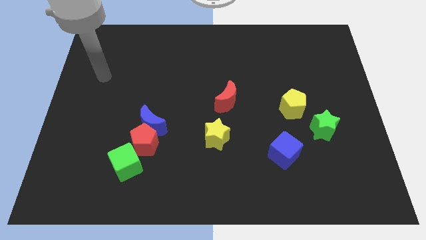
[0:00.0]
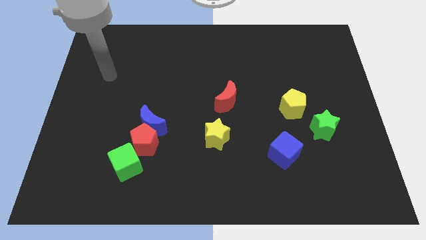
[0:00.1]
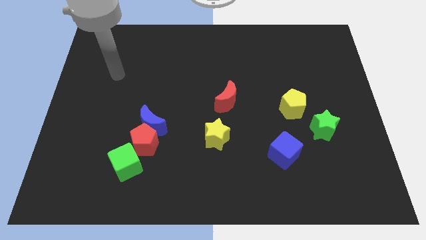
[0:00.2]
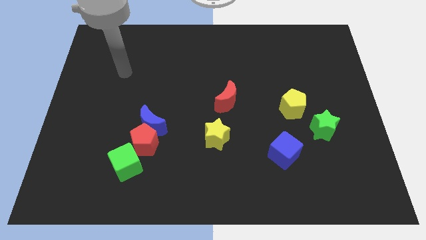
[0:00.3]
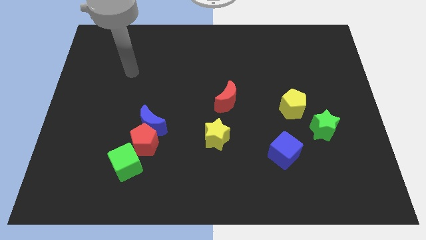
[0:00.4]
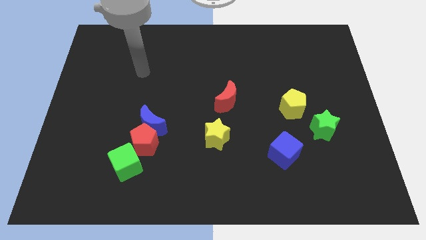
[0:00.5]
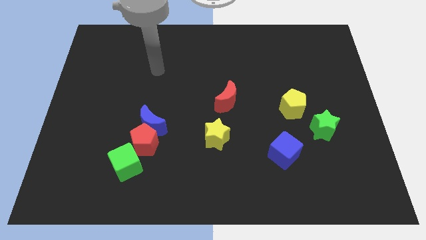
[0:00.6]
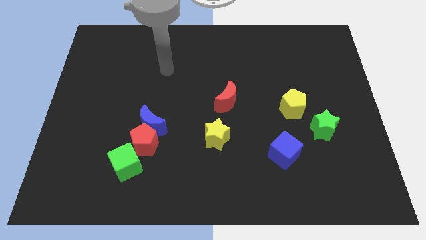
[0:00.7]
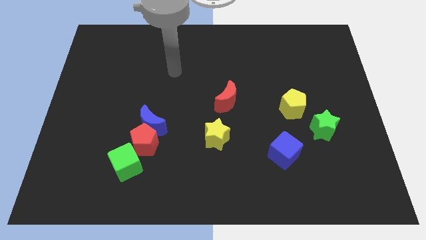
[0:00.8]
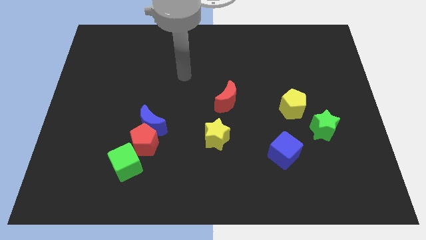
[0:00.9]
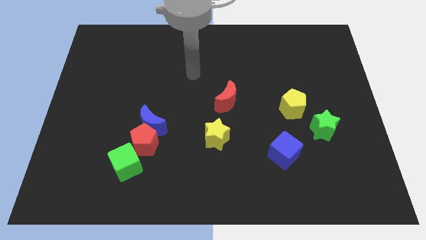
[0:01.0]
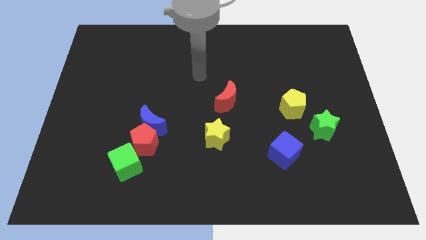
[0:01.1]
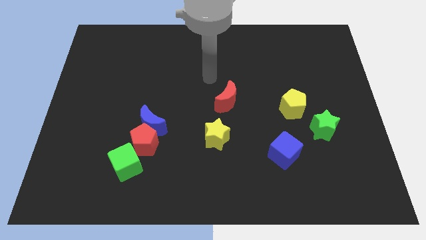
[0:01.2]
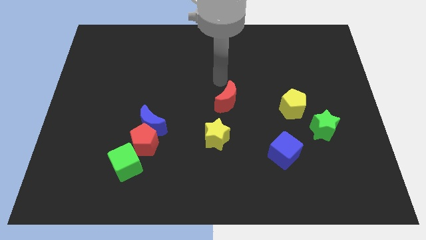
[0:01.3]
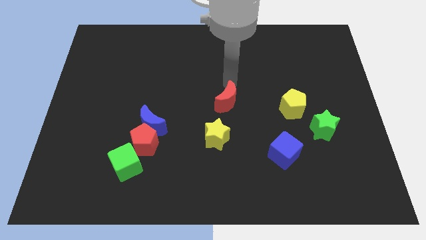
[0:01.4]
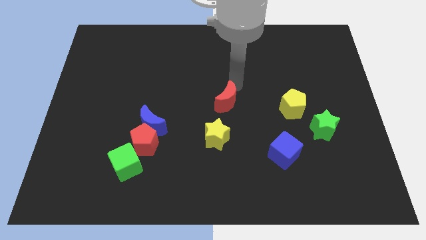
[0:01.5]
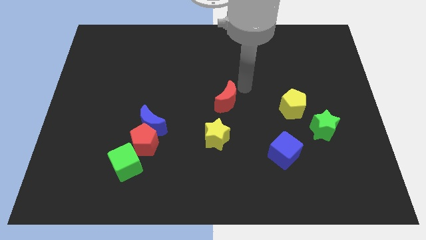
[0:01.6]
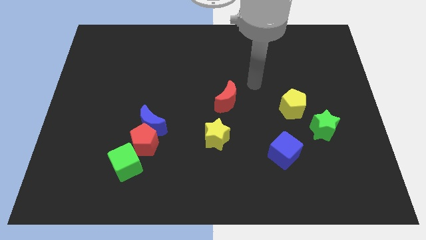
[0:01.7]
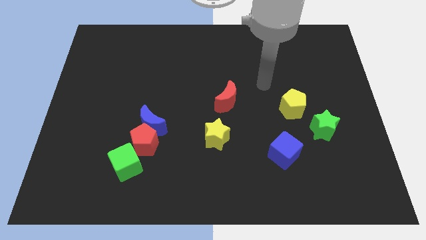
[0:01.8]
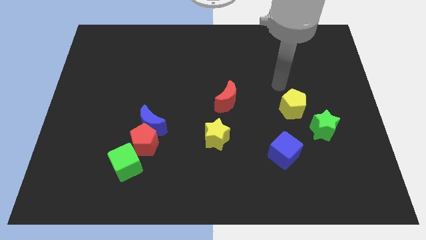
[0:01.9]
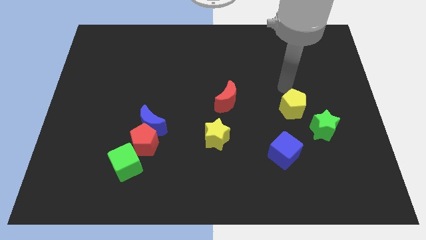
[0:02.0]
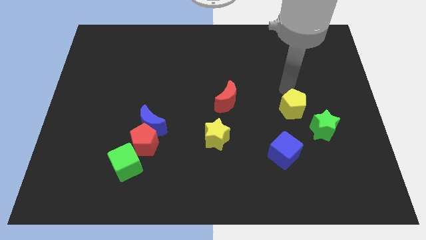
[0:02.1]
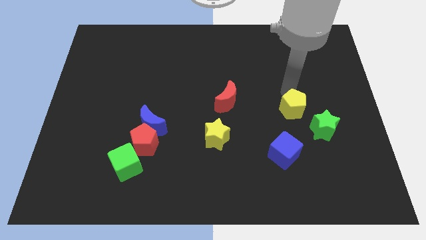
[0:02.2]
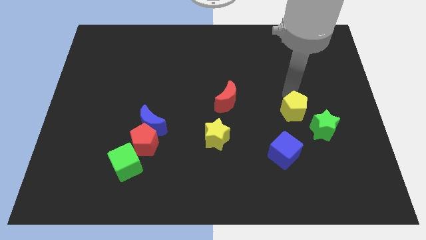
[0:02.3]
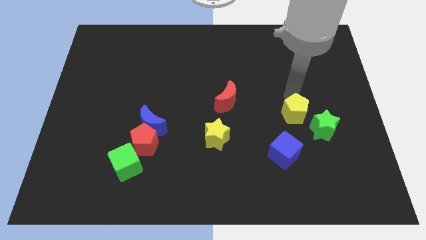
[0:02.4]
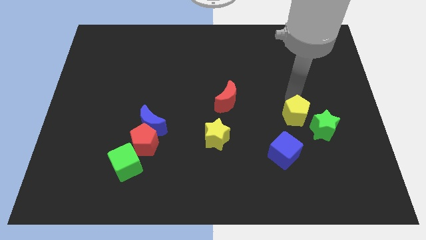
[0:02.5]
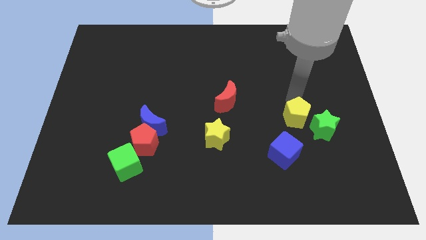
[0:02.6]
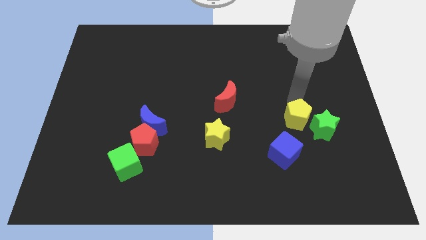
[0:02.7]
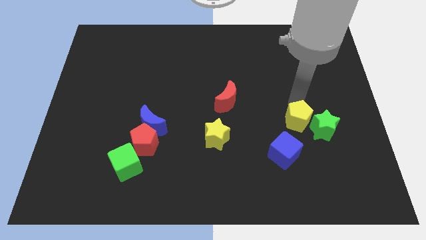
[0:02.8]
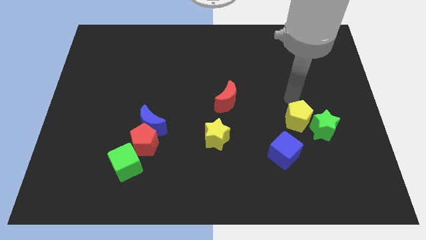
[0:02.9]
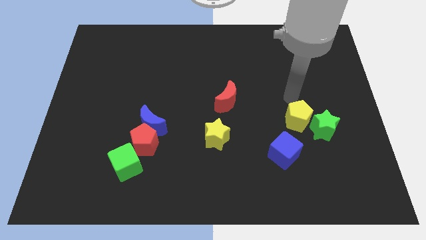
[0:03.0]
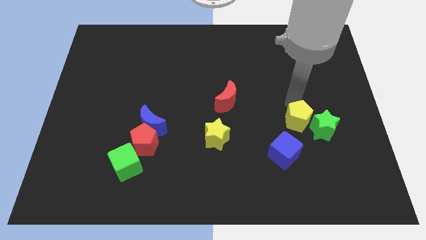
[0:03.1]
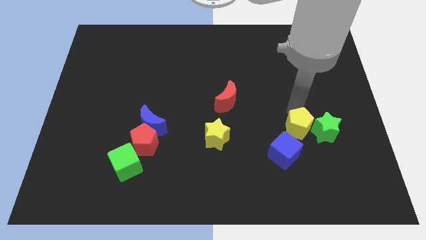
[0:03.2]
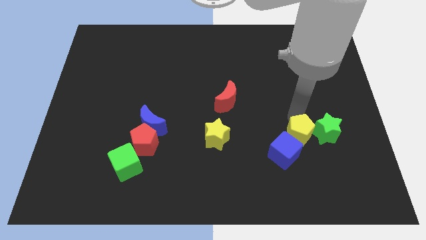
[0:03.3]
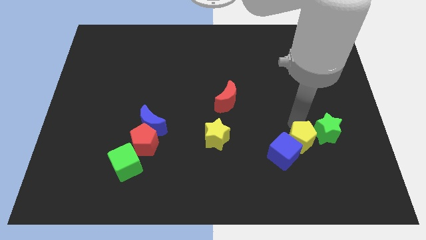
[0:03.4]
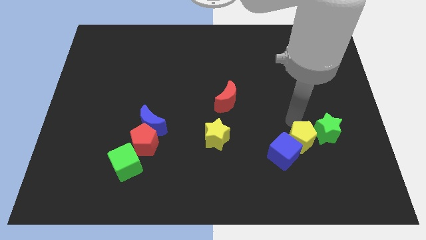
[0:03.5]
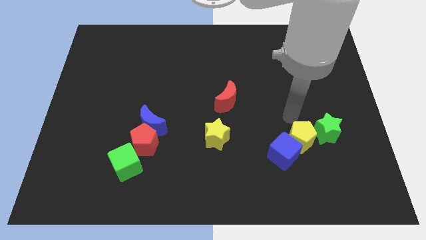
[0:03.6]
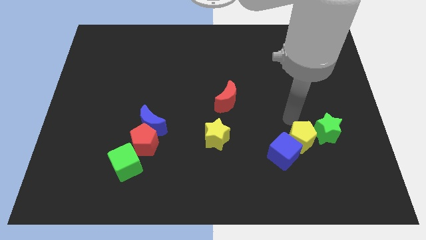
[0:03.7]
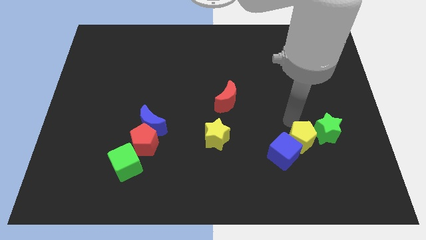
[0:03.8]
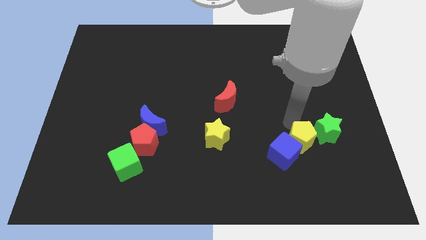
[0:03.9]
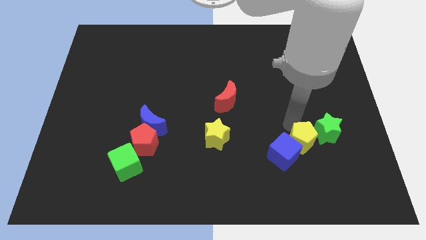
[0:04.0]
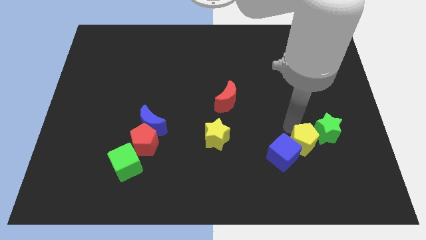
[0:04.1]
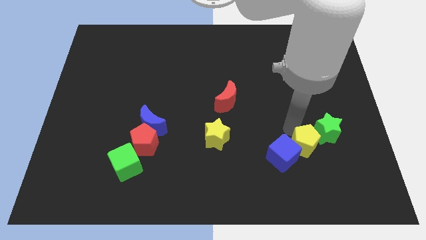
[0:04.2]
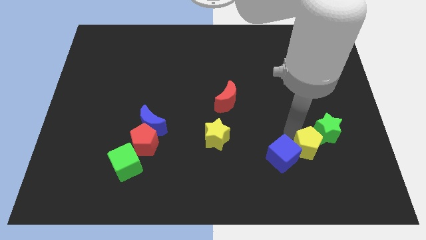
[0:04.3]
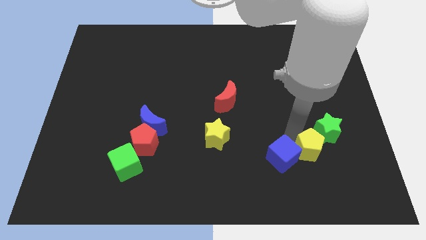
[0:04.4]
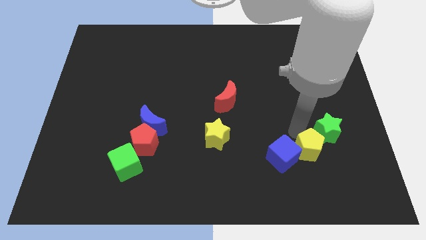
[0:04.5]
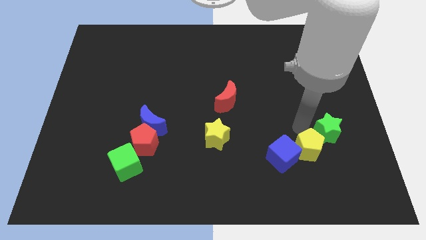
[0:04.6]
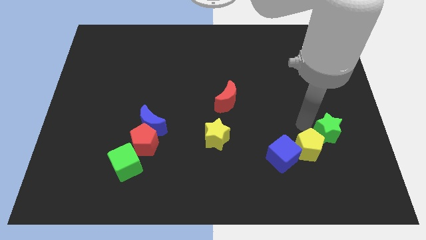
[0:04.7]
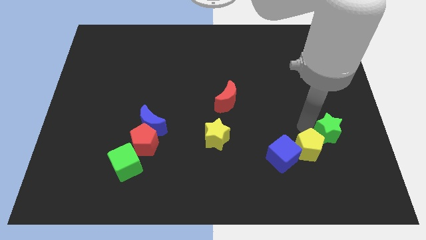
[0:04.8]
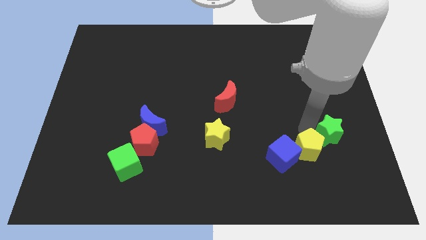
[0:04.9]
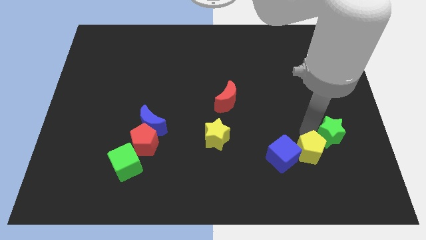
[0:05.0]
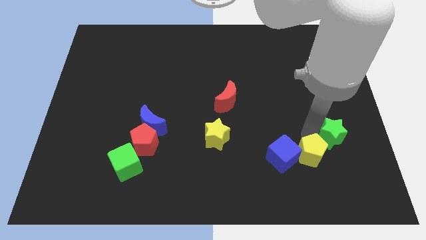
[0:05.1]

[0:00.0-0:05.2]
slide the yellow pentagon diagonally down and to the right of the blue cube

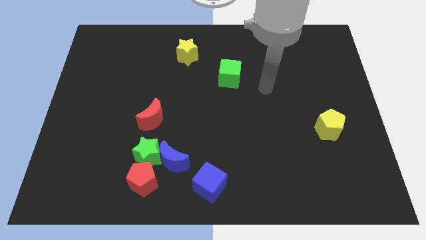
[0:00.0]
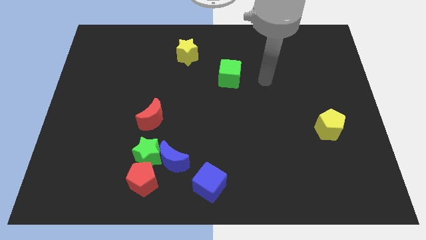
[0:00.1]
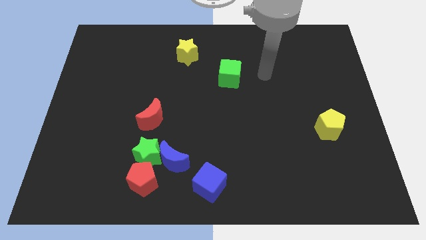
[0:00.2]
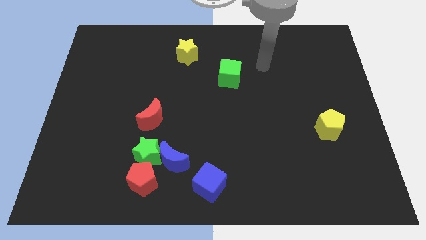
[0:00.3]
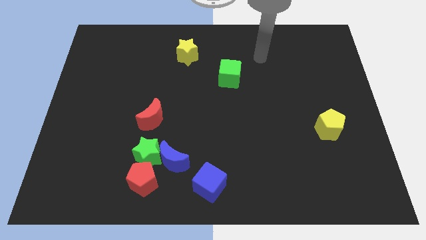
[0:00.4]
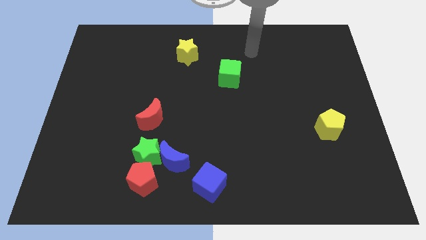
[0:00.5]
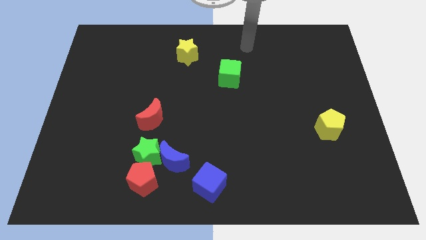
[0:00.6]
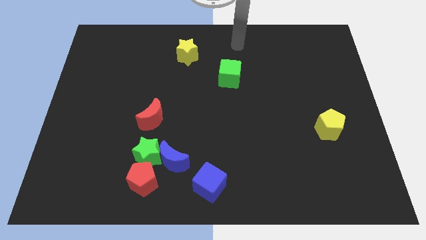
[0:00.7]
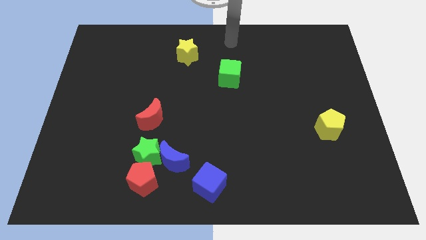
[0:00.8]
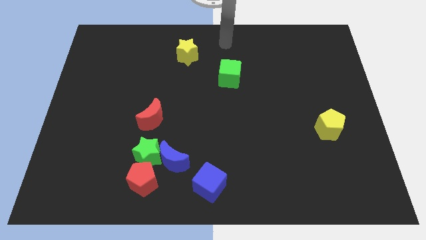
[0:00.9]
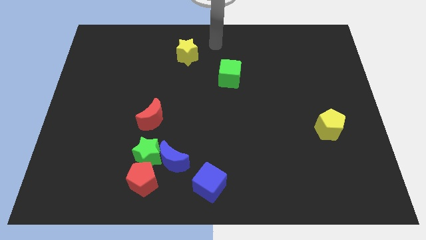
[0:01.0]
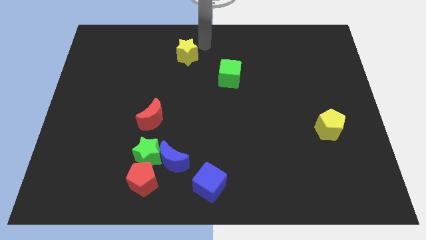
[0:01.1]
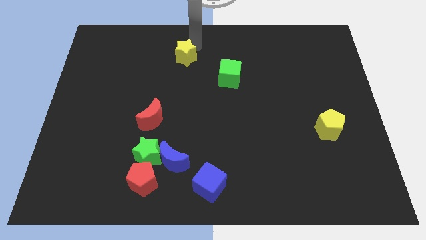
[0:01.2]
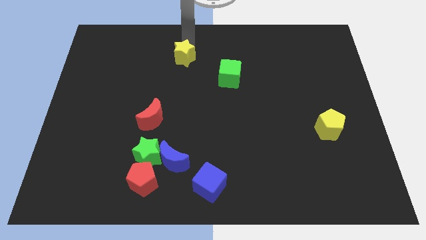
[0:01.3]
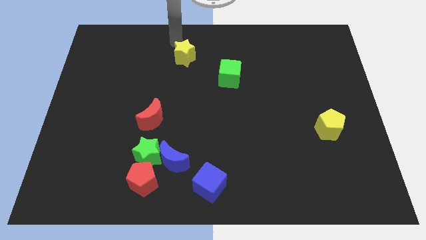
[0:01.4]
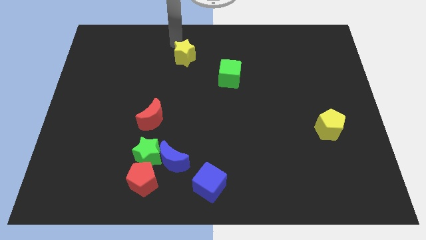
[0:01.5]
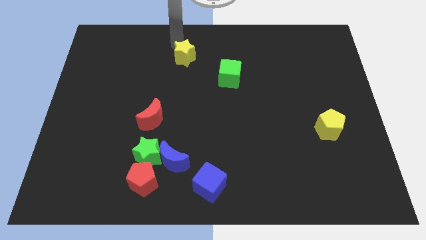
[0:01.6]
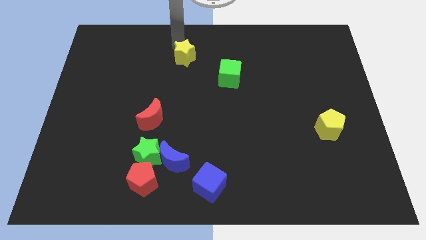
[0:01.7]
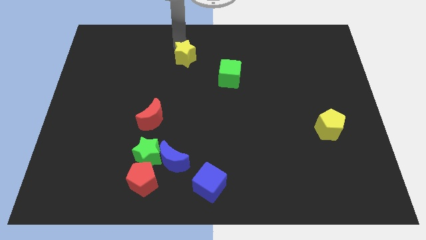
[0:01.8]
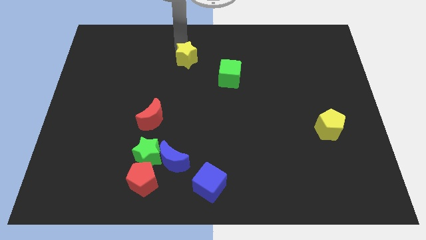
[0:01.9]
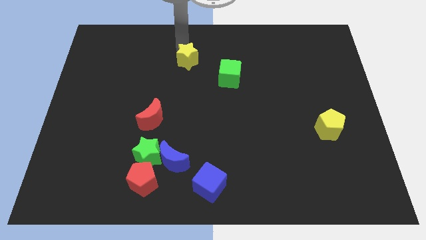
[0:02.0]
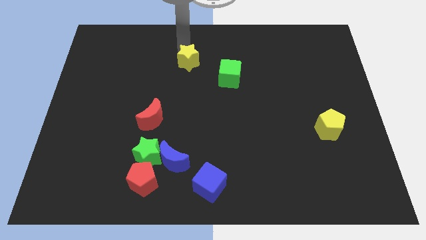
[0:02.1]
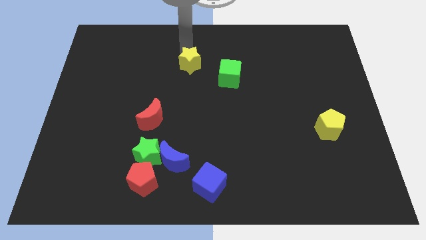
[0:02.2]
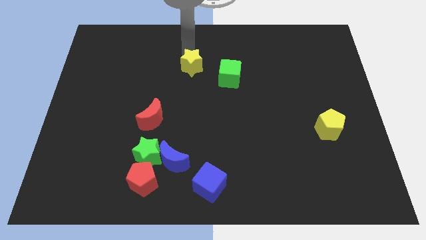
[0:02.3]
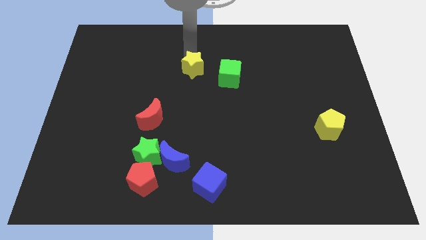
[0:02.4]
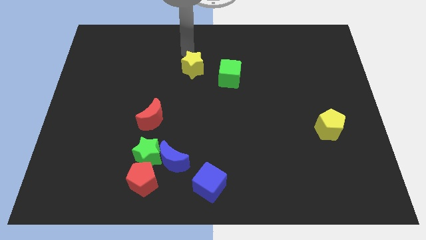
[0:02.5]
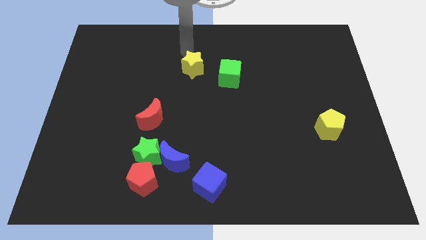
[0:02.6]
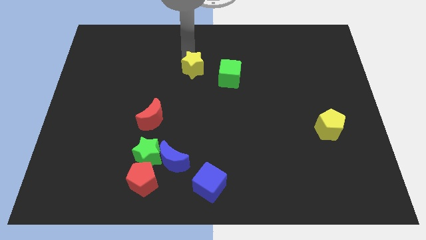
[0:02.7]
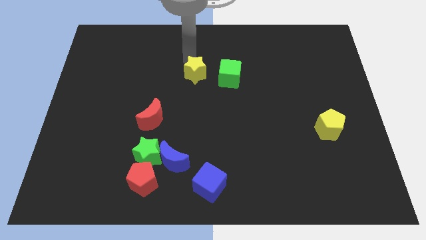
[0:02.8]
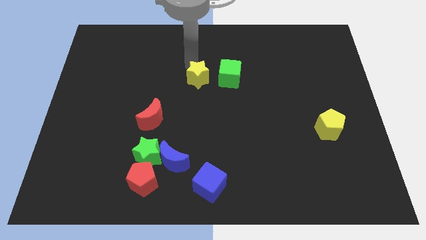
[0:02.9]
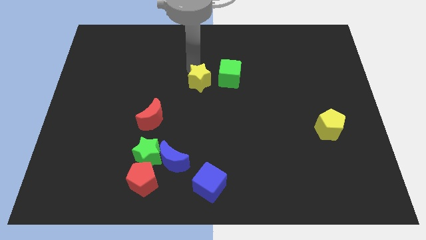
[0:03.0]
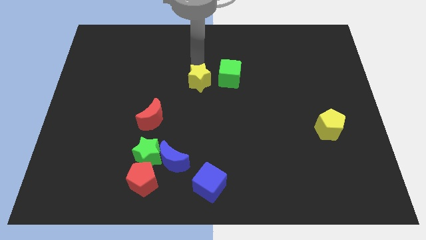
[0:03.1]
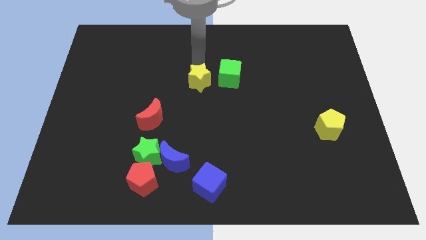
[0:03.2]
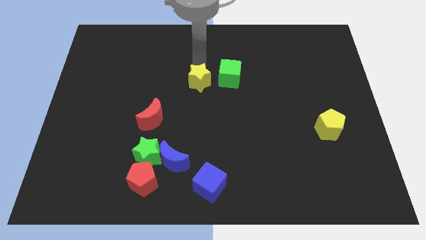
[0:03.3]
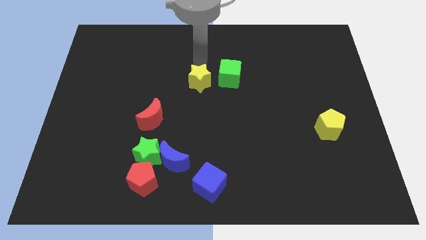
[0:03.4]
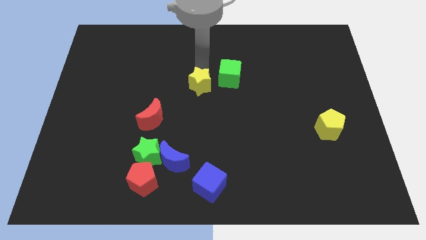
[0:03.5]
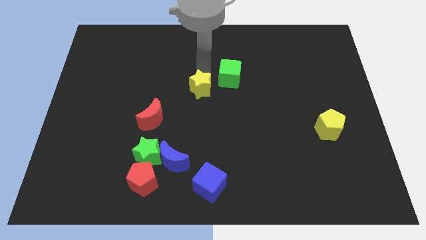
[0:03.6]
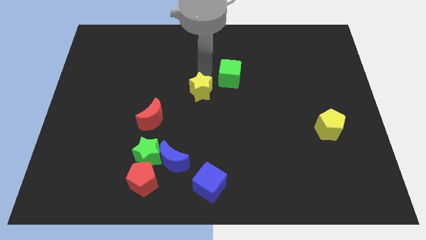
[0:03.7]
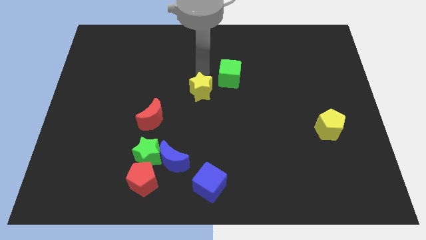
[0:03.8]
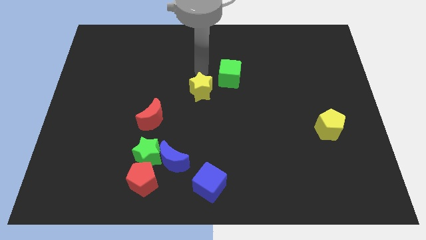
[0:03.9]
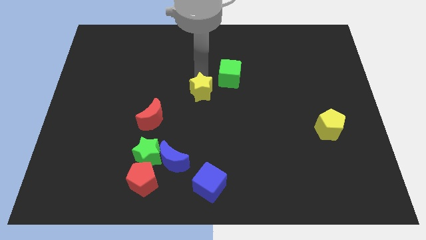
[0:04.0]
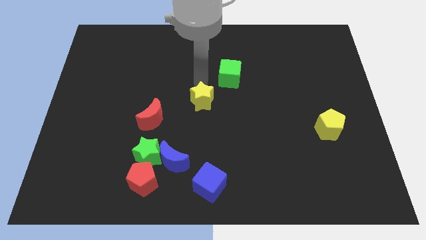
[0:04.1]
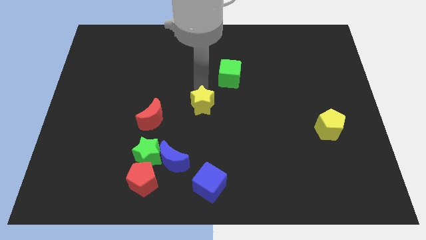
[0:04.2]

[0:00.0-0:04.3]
put the yellow star right of the red moon
